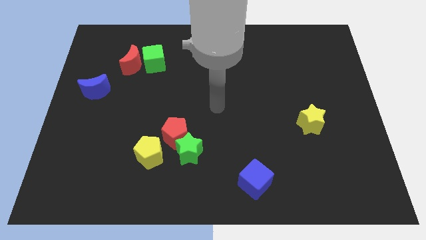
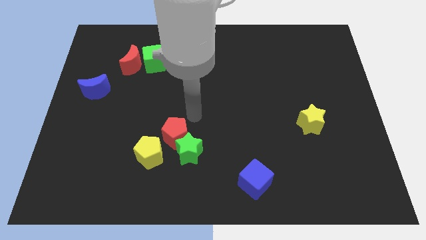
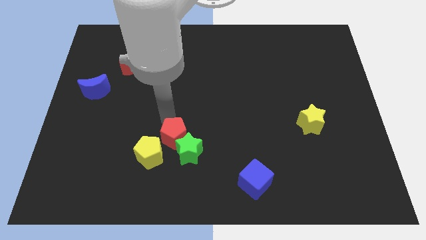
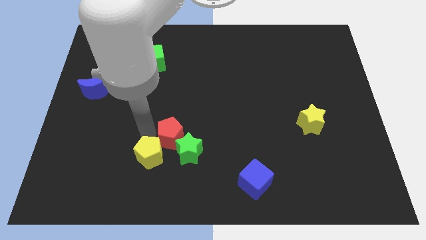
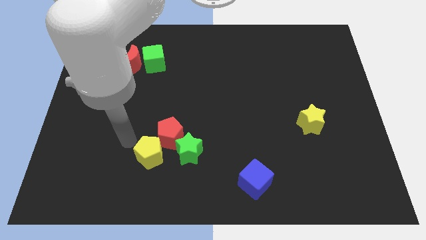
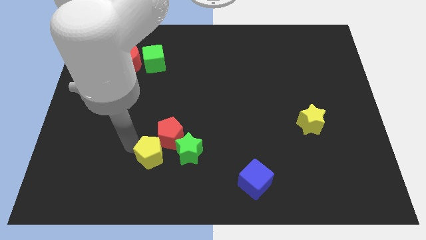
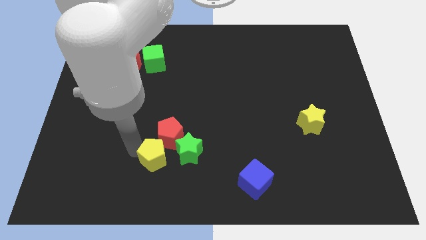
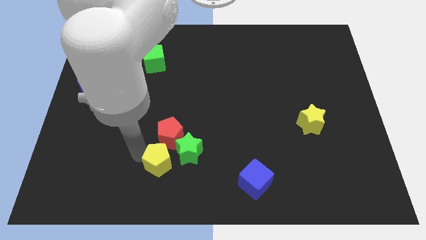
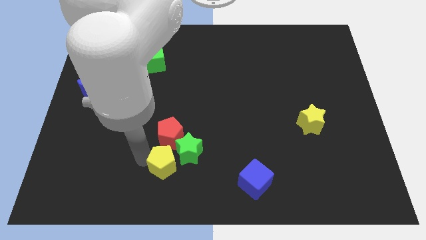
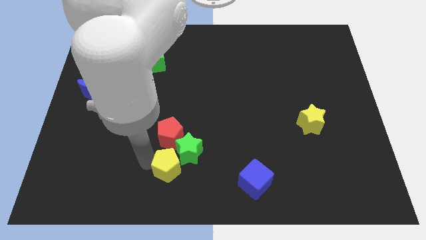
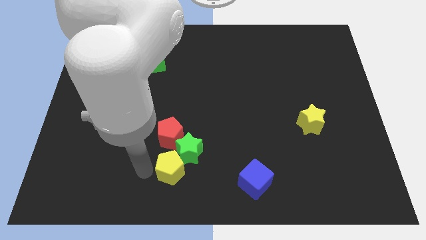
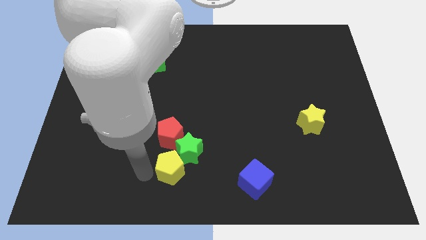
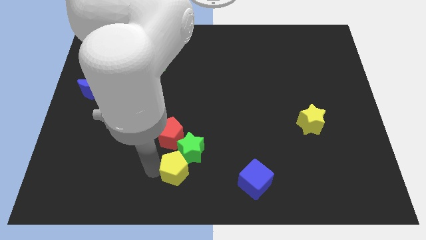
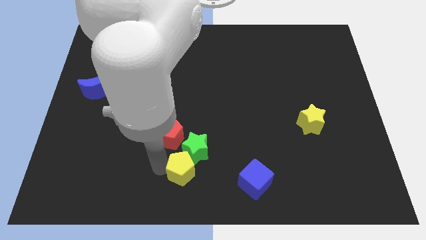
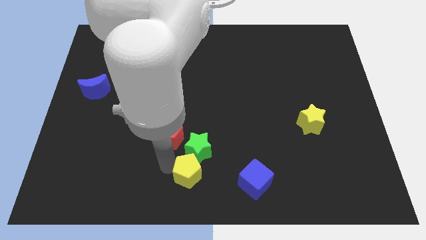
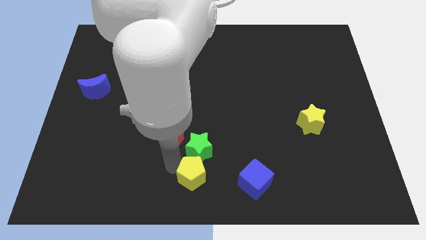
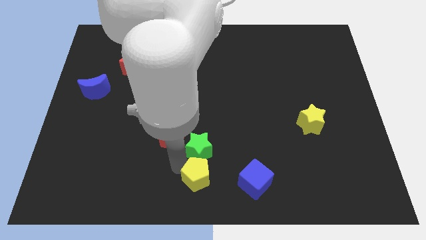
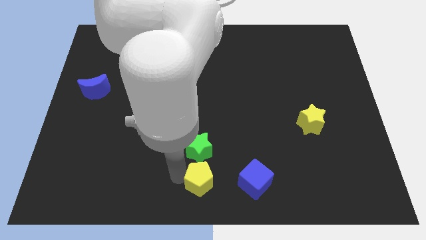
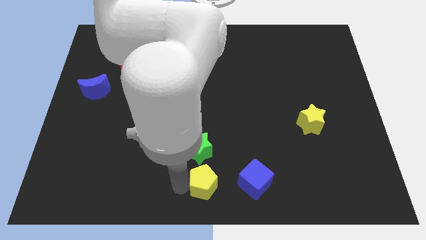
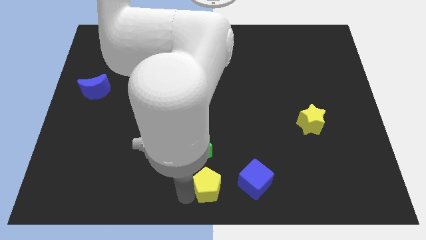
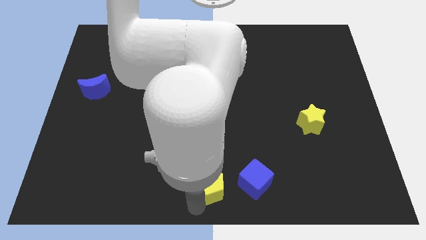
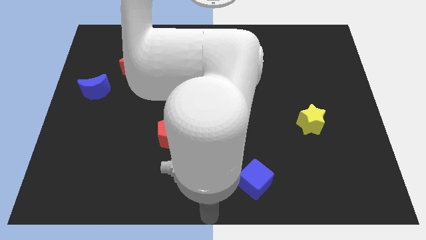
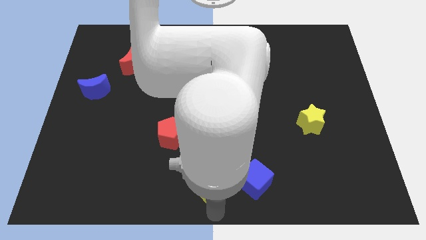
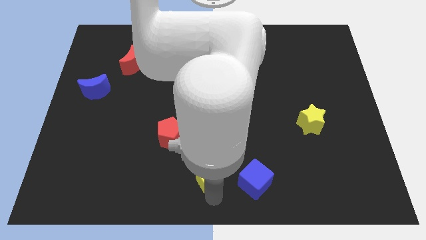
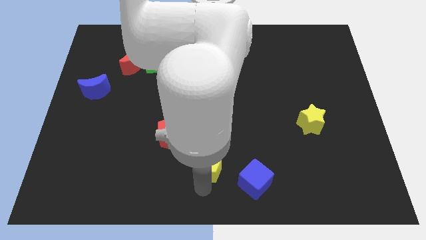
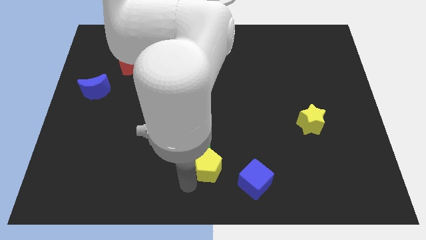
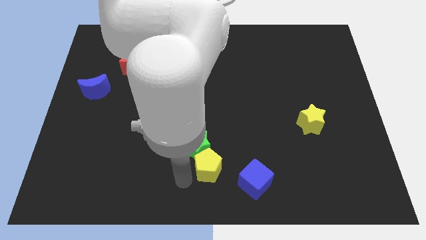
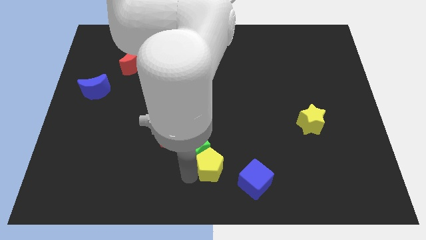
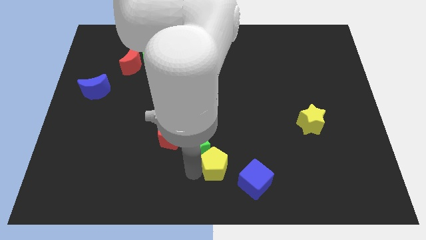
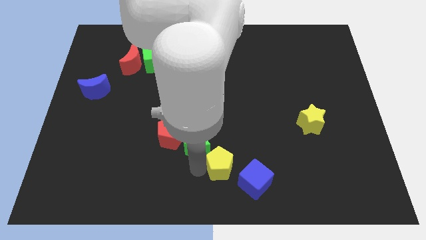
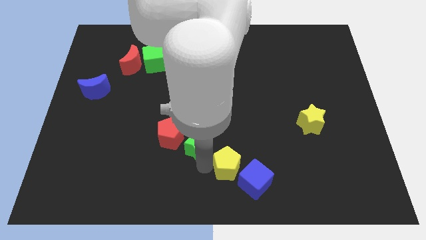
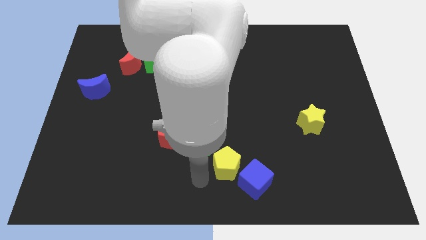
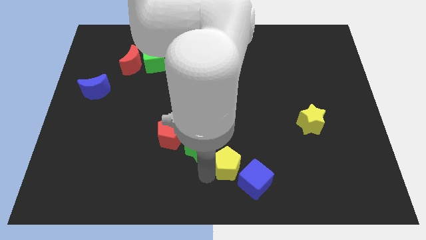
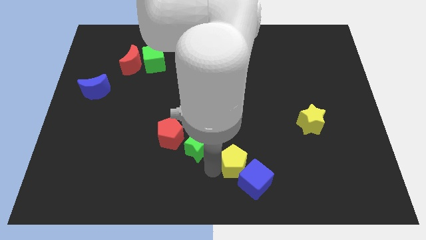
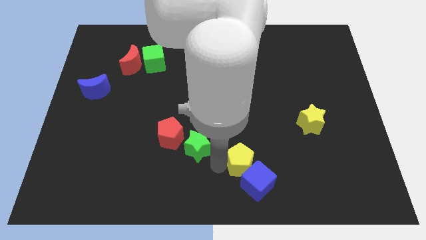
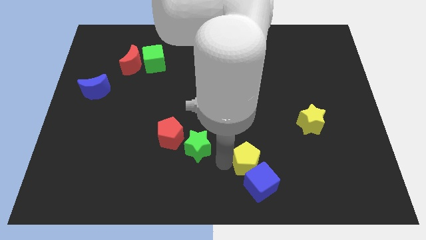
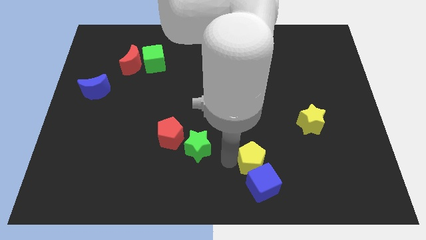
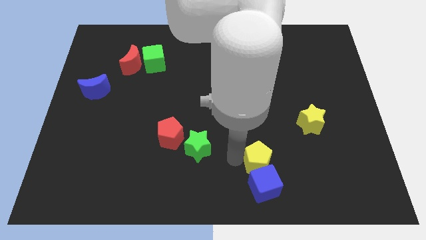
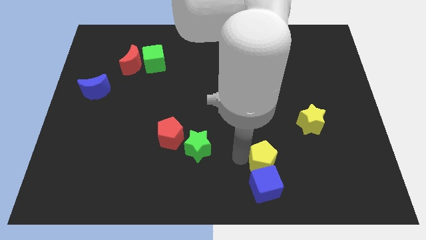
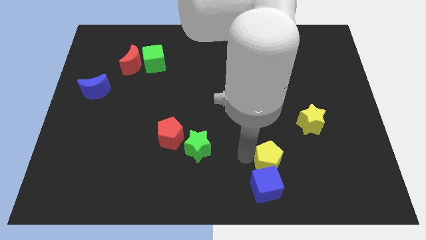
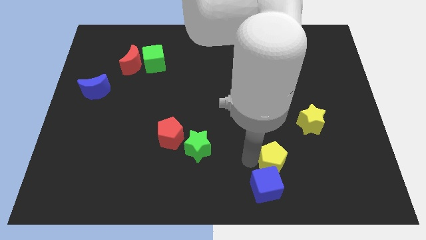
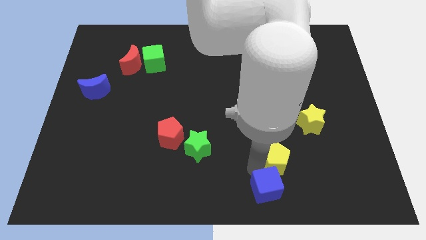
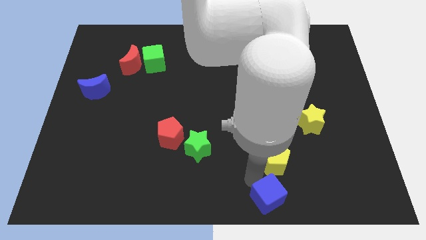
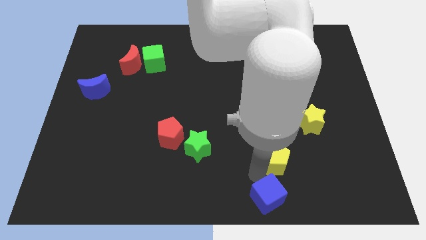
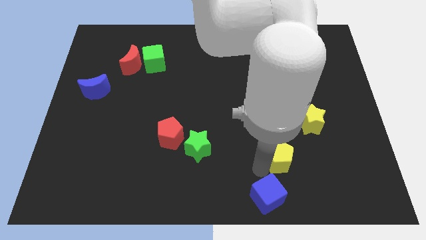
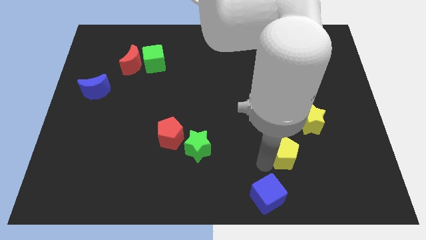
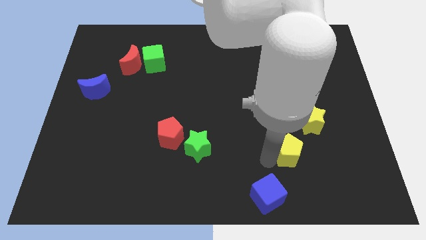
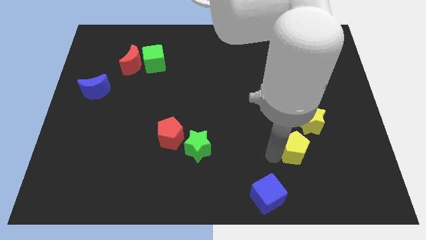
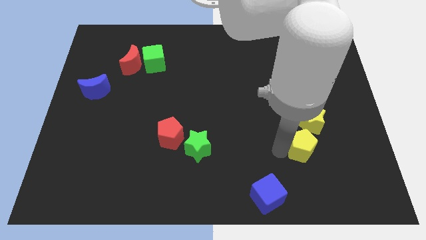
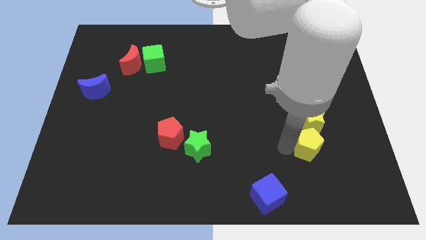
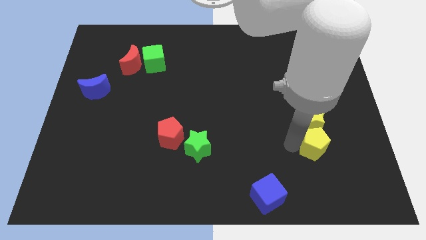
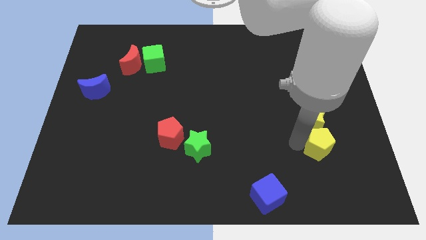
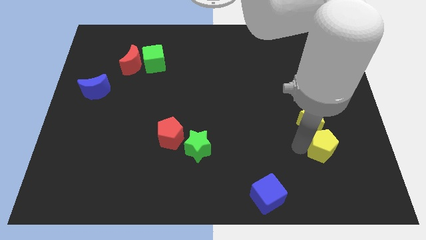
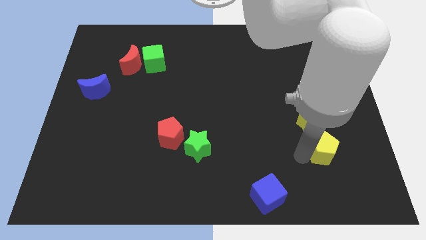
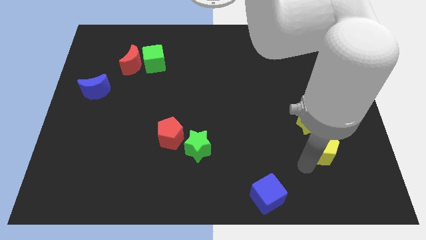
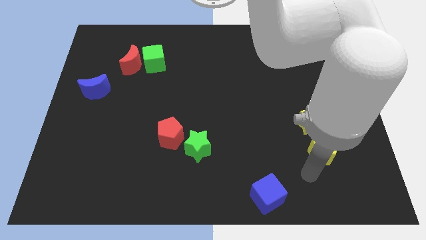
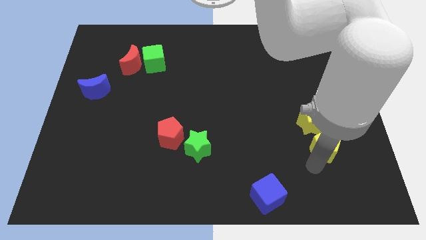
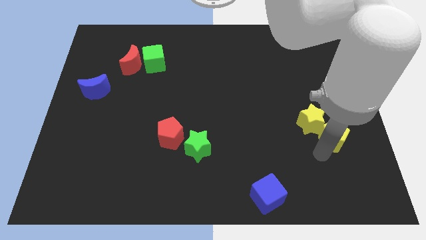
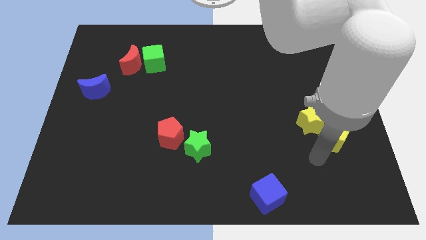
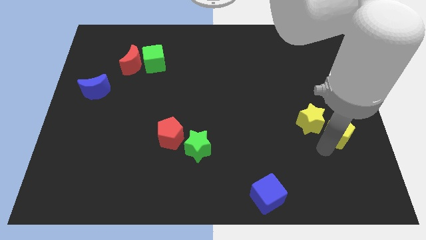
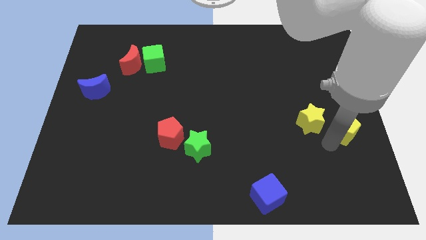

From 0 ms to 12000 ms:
move the yellow pentagon to the center right

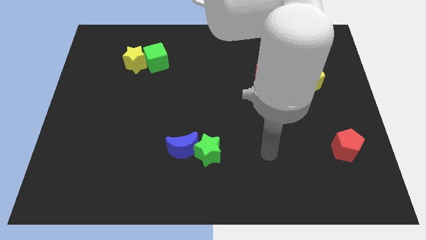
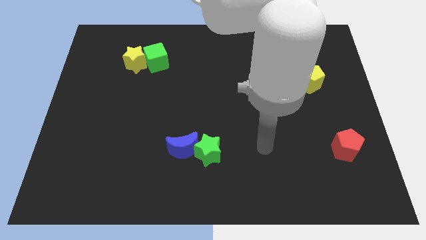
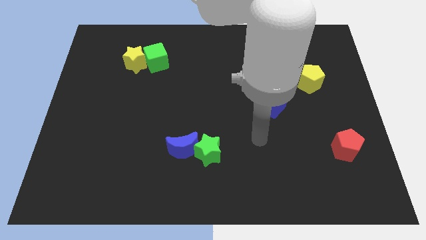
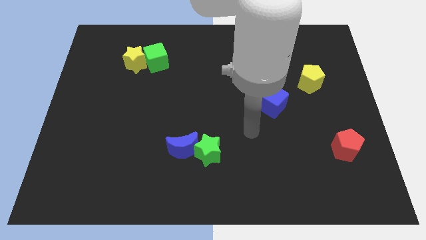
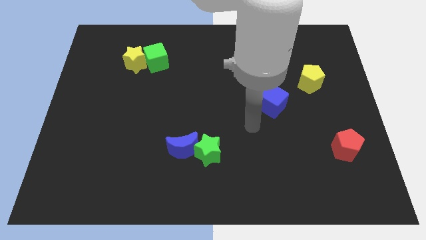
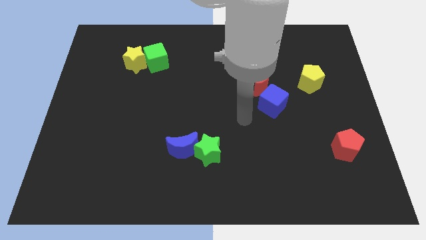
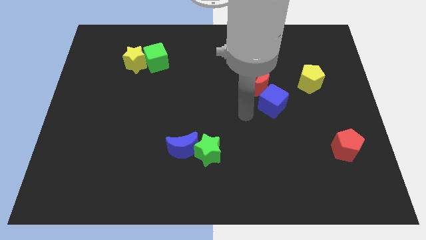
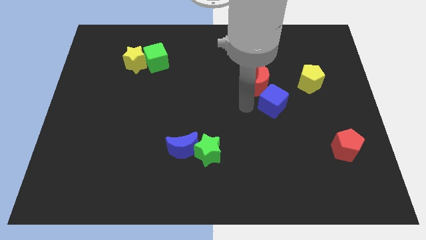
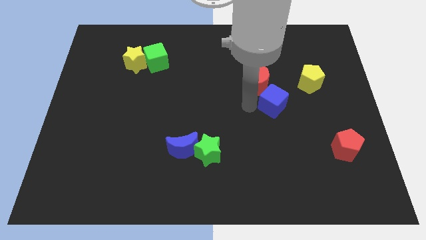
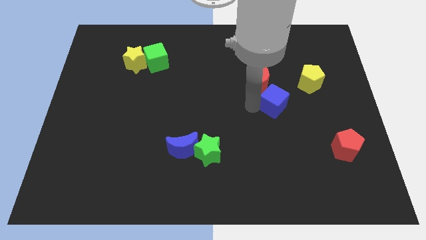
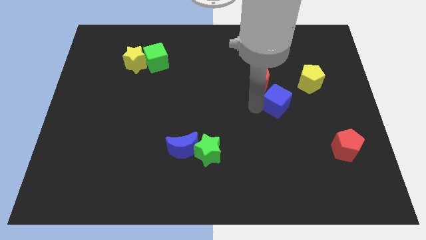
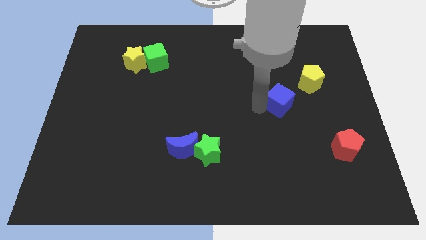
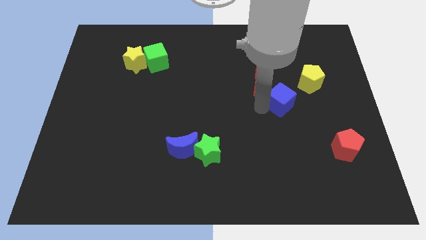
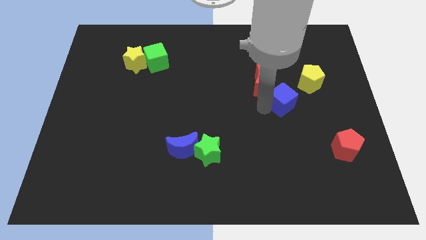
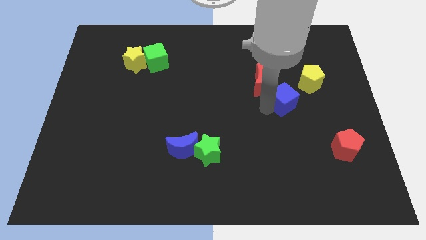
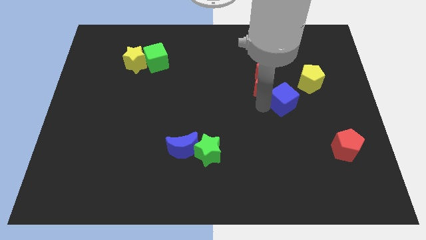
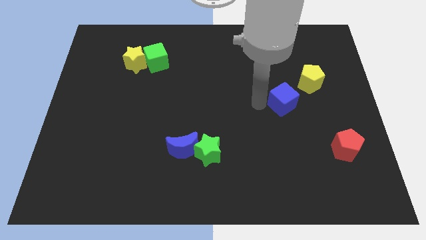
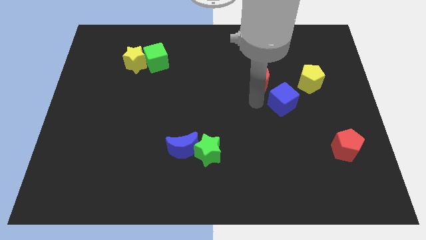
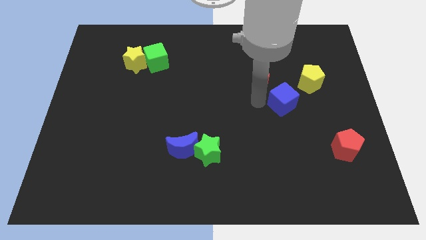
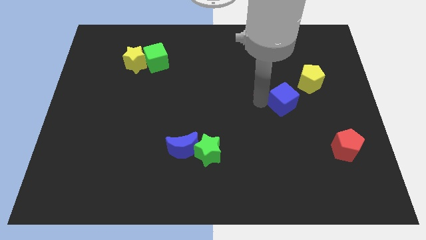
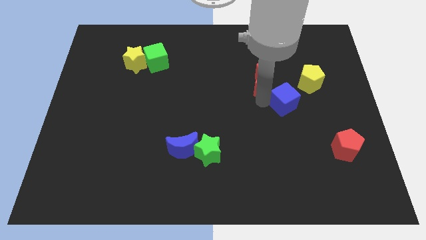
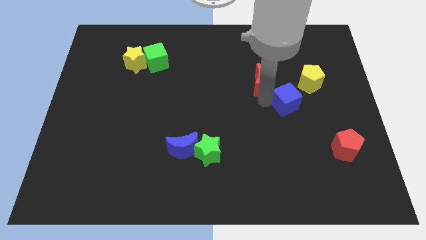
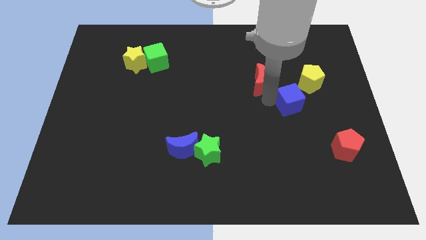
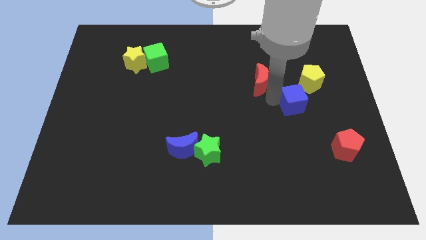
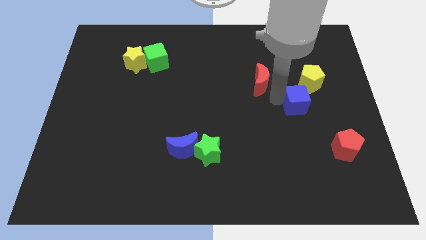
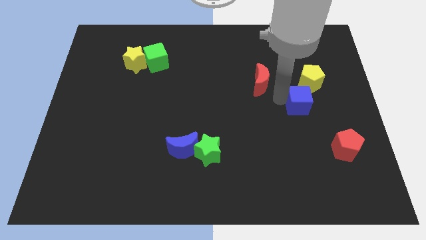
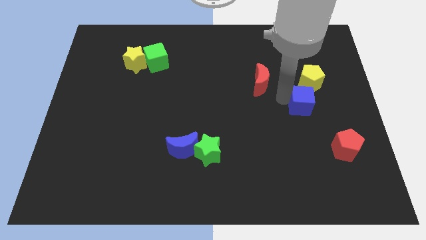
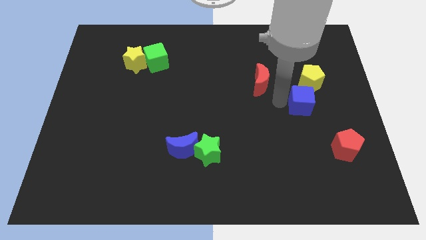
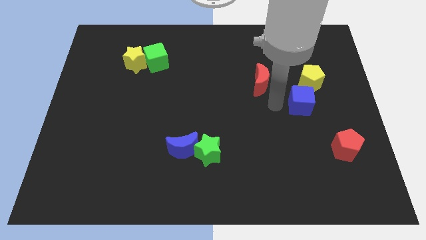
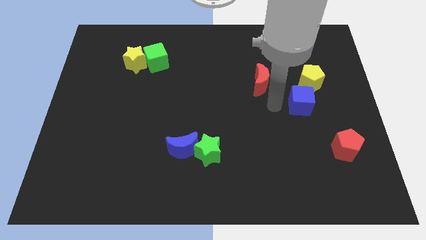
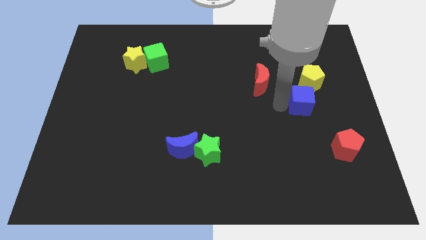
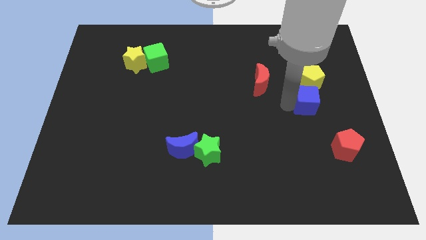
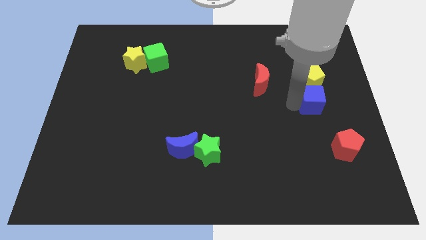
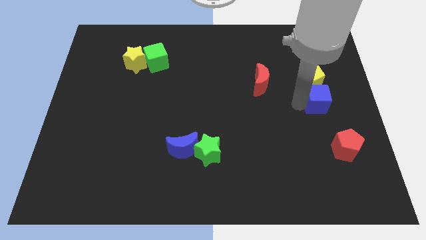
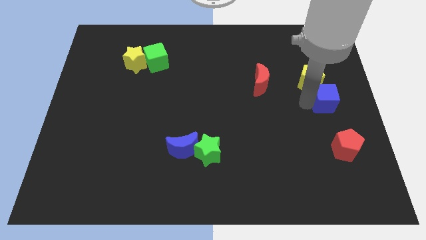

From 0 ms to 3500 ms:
slide the blue cube to the center right
